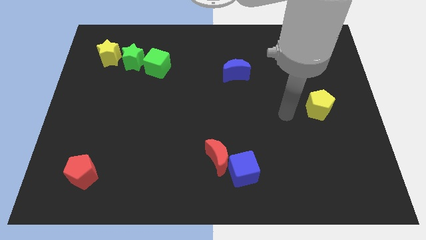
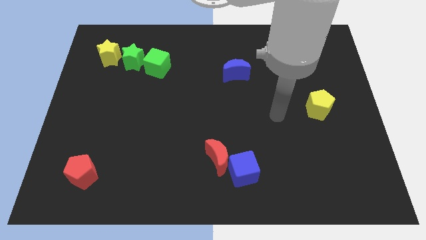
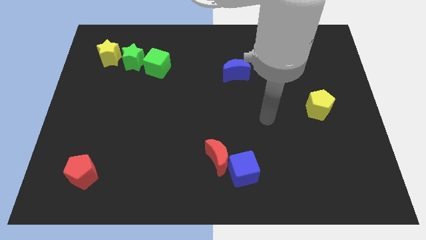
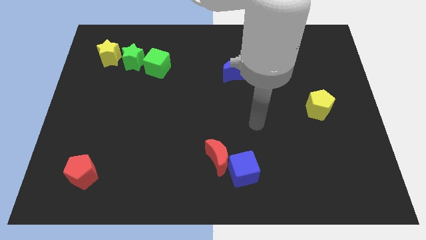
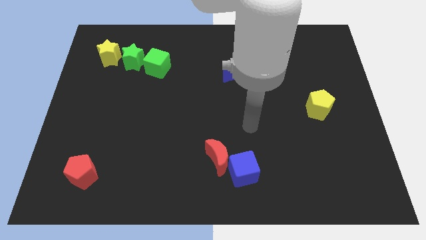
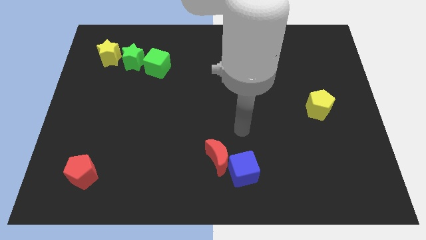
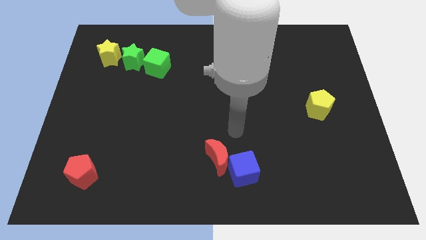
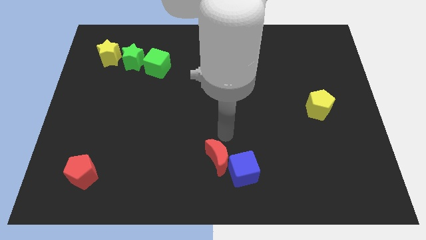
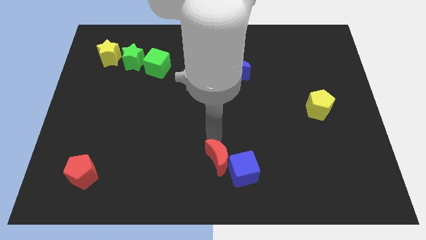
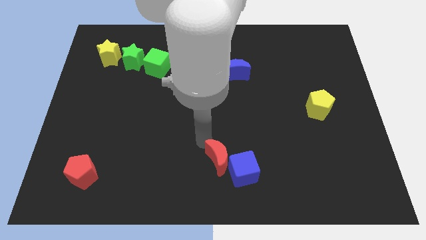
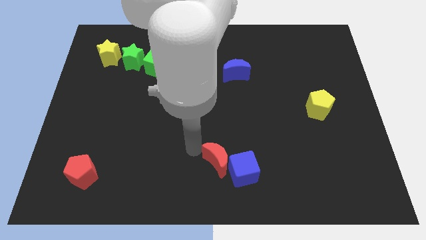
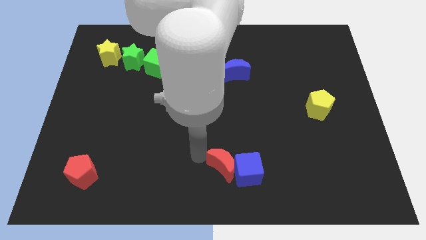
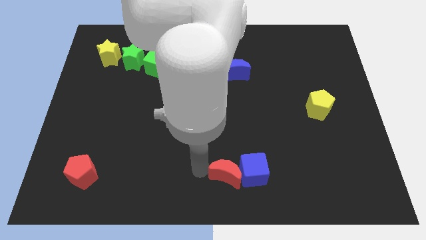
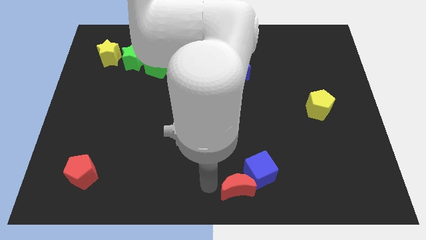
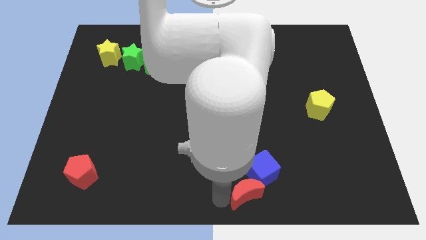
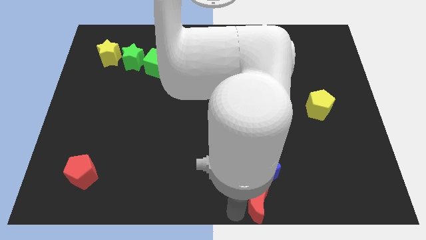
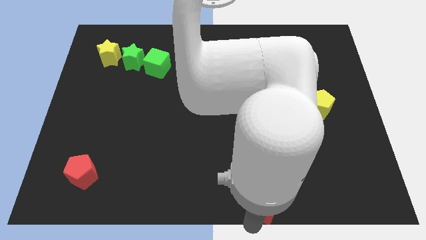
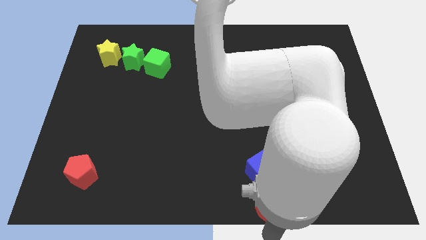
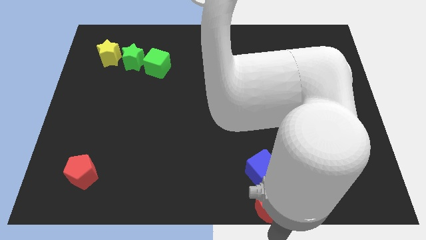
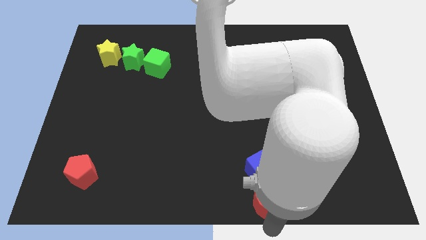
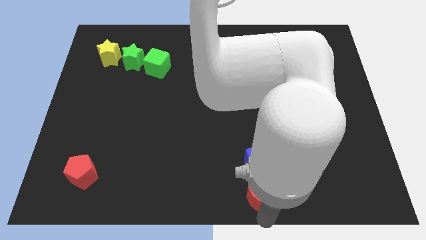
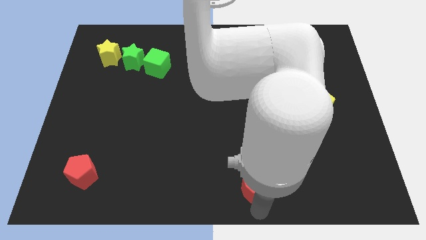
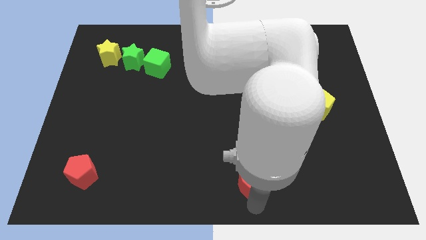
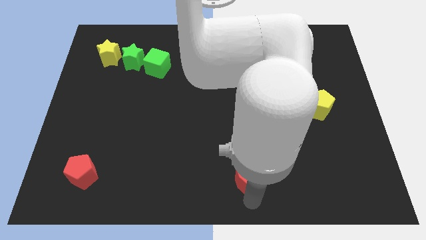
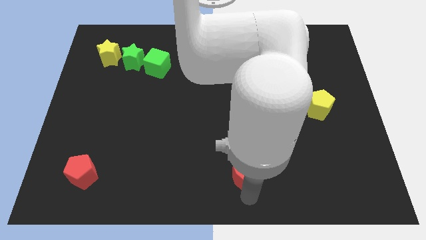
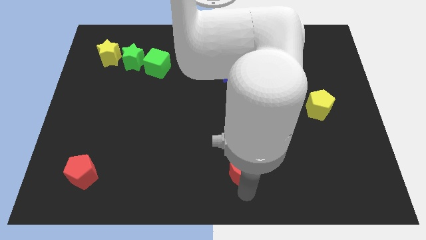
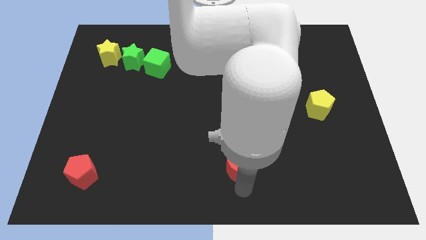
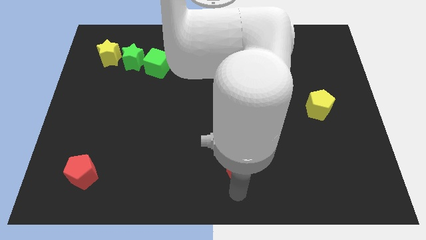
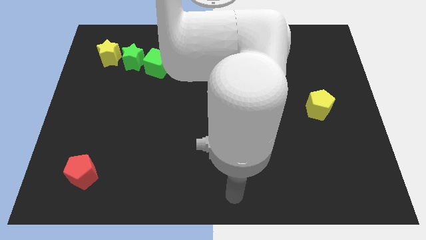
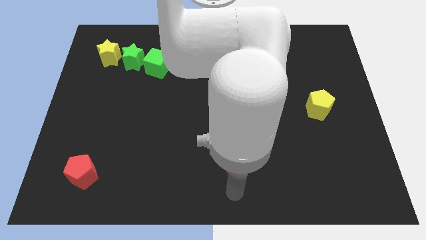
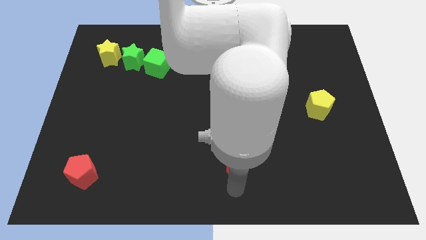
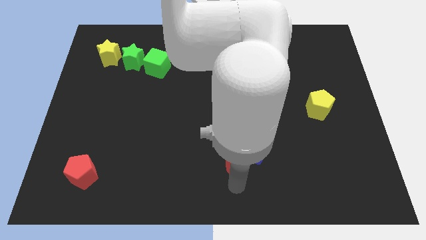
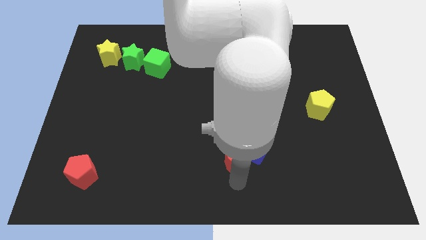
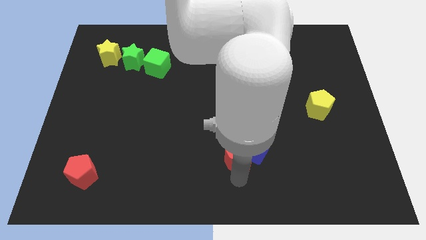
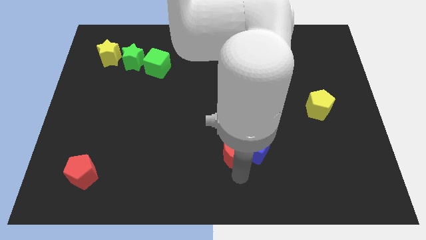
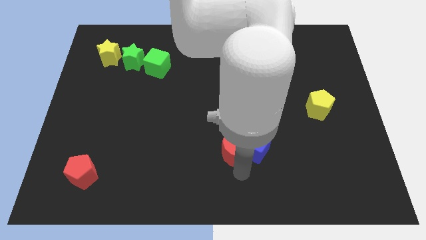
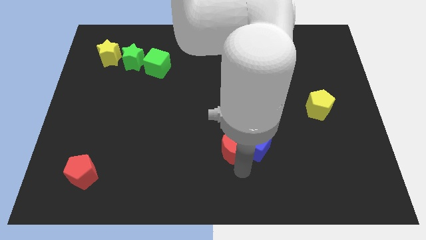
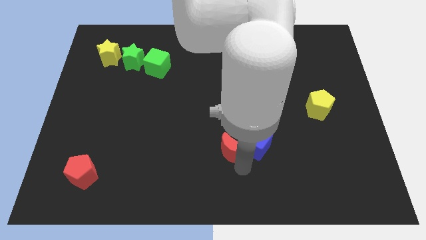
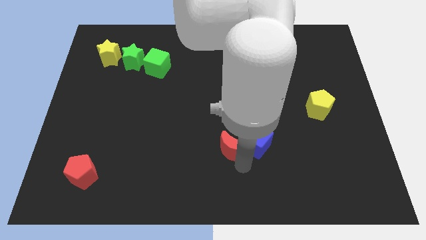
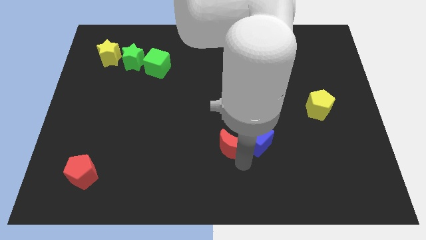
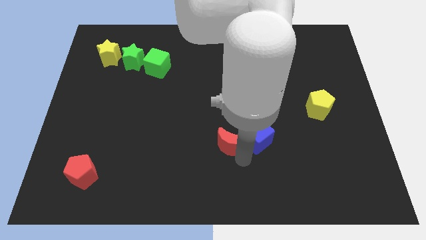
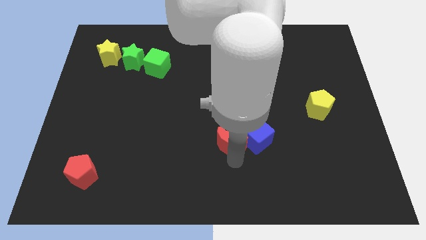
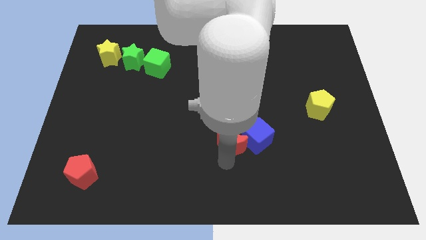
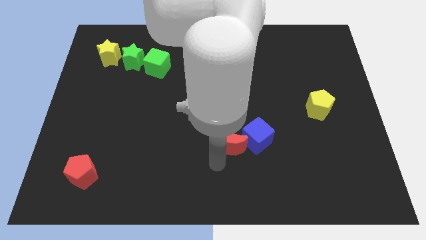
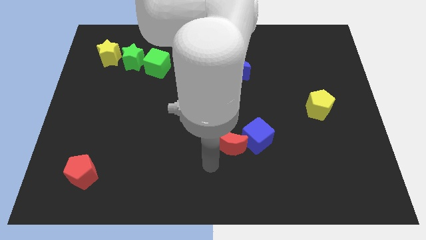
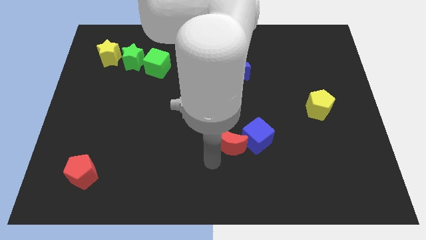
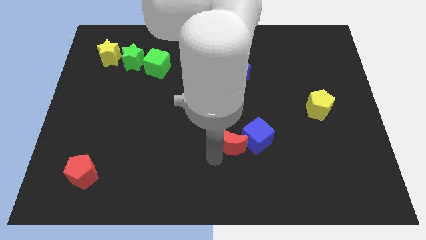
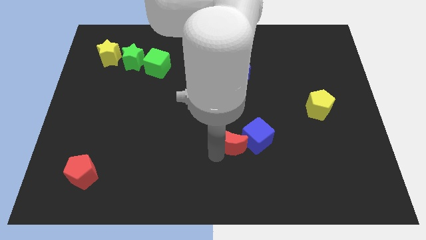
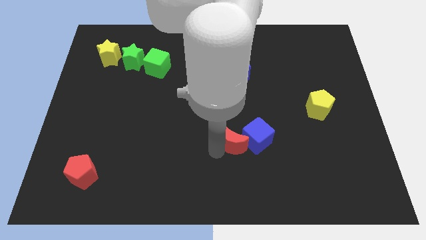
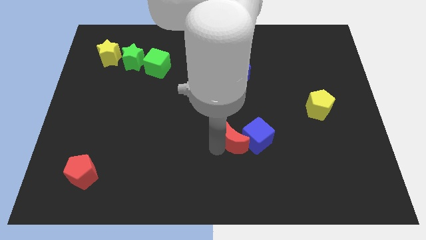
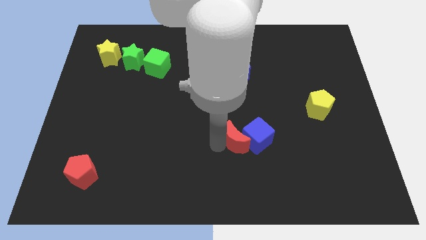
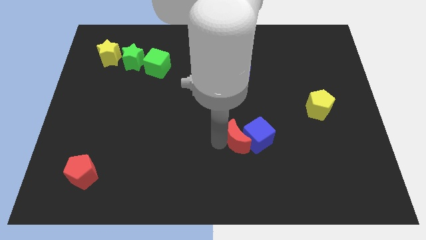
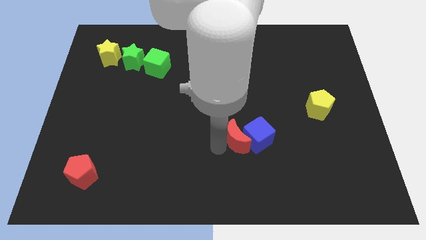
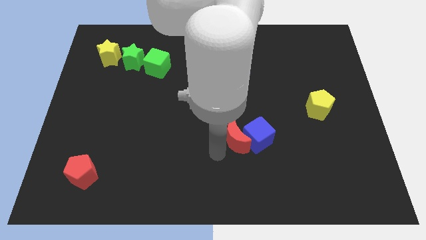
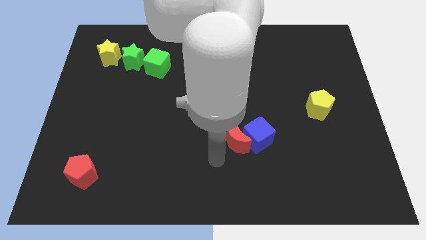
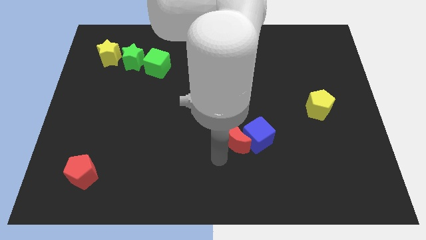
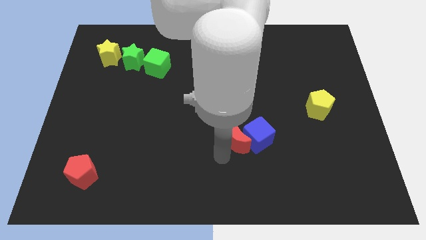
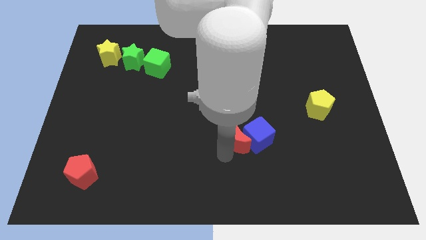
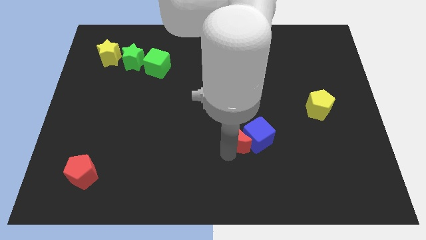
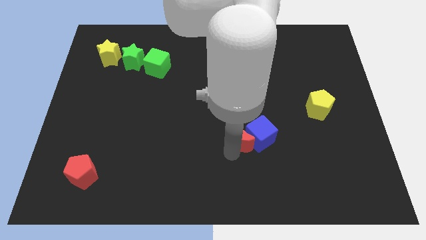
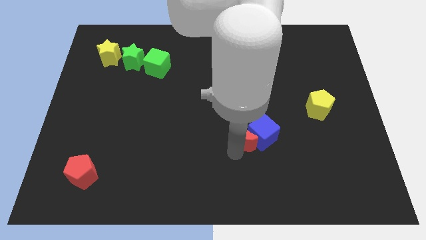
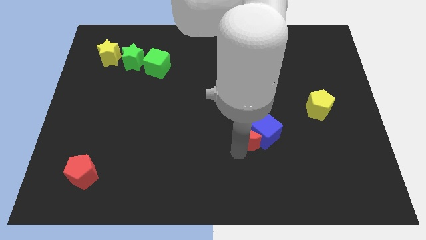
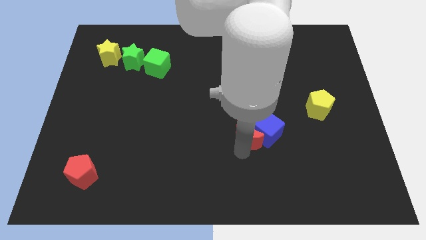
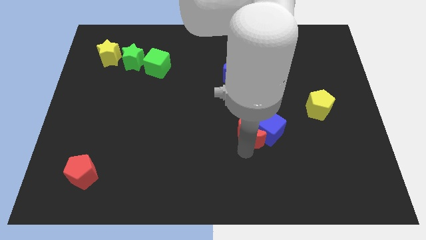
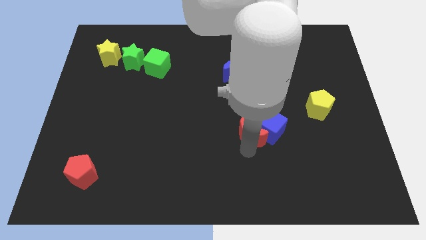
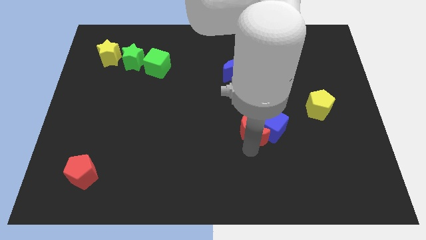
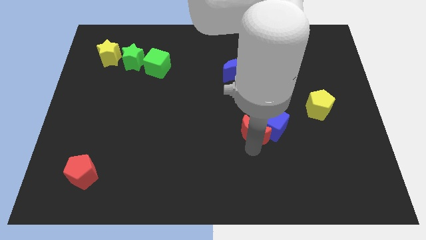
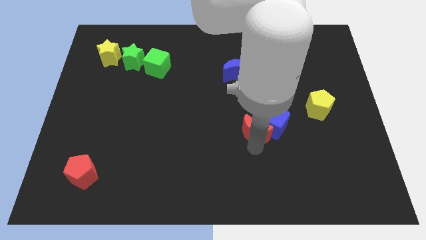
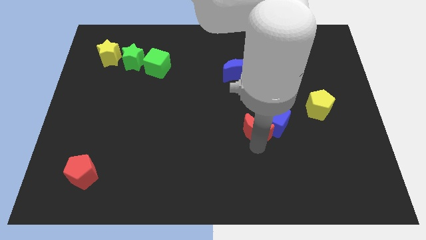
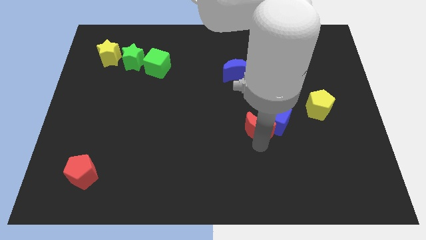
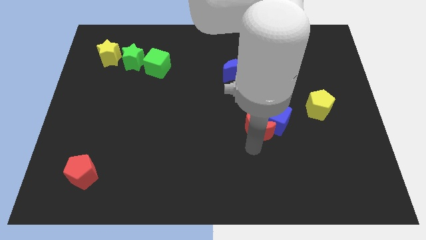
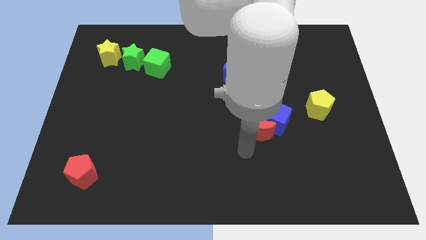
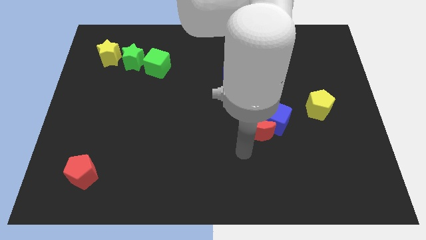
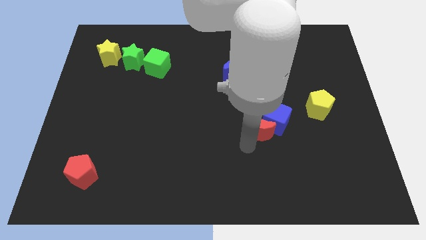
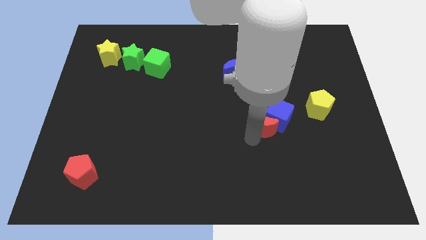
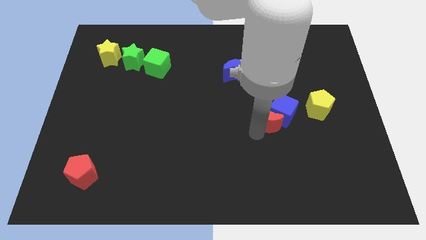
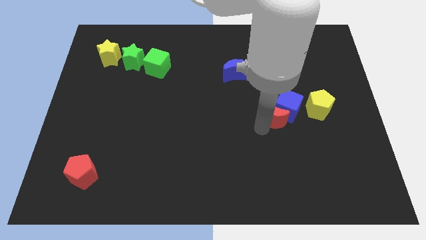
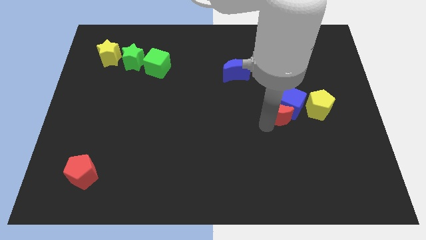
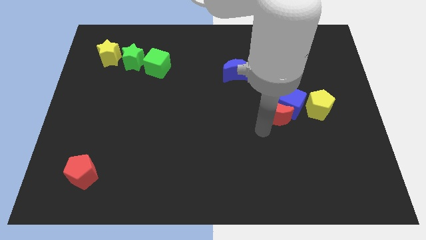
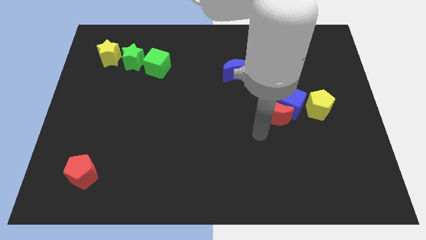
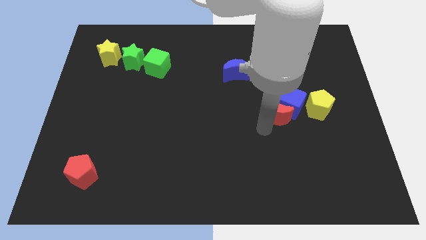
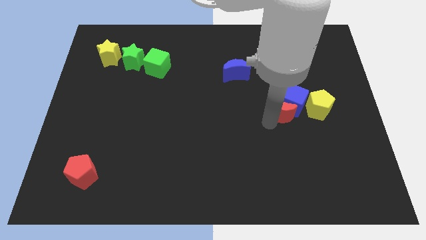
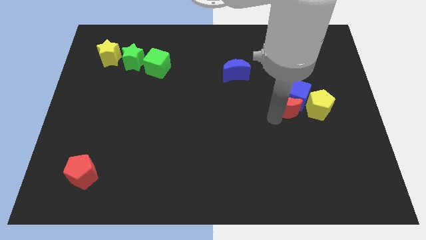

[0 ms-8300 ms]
move the red moon diagonally up and to the right
